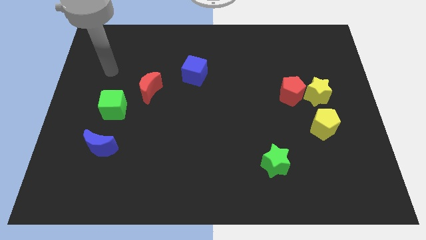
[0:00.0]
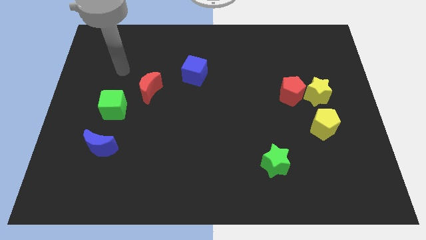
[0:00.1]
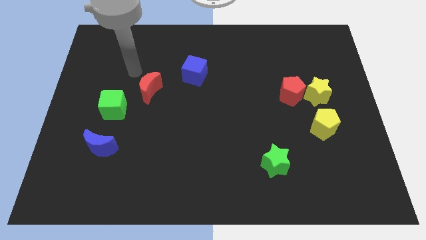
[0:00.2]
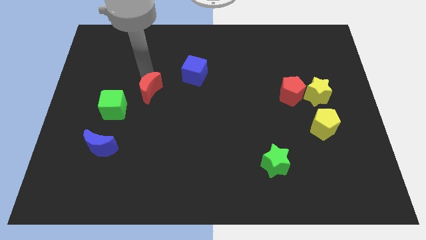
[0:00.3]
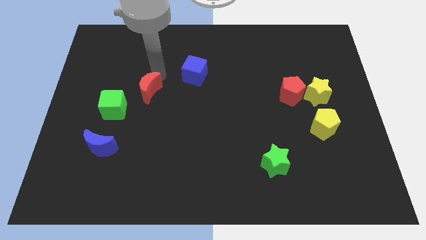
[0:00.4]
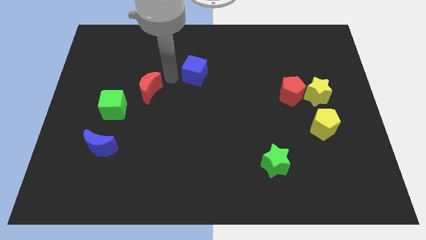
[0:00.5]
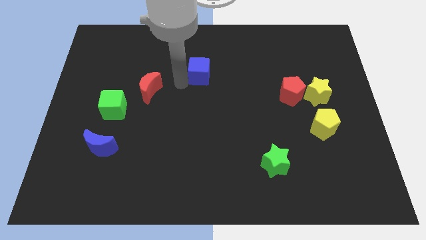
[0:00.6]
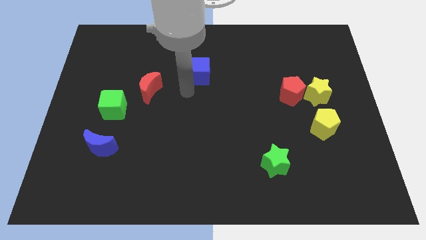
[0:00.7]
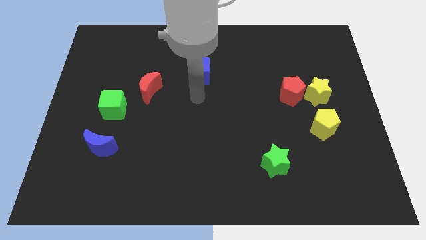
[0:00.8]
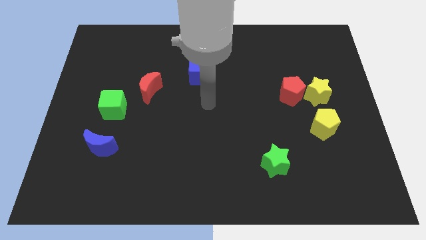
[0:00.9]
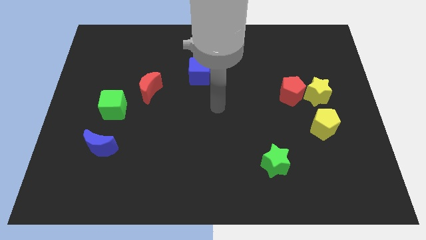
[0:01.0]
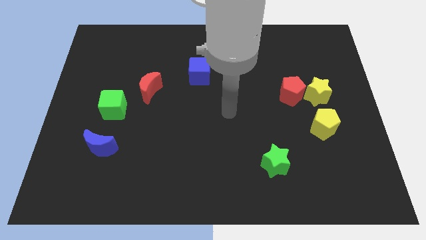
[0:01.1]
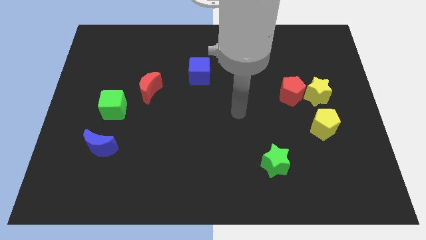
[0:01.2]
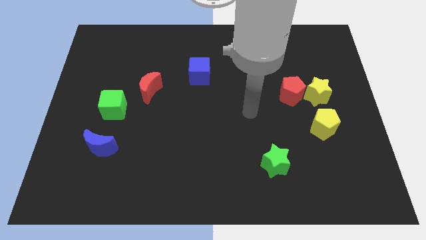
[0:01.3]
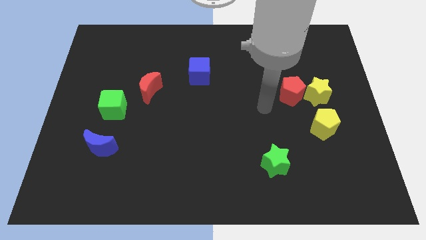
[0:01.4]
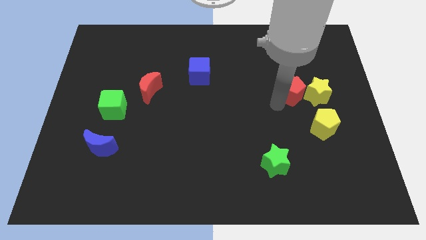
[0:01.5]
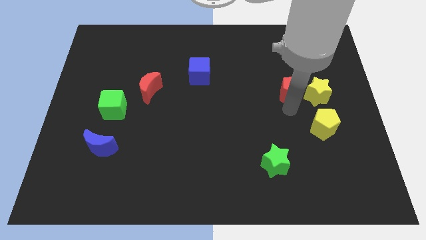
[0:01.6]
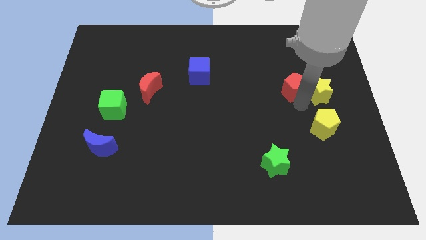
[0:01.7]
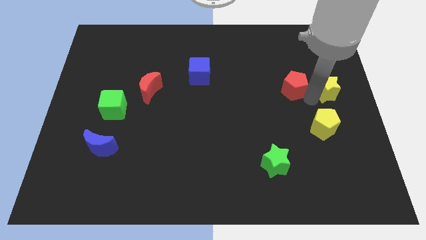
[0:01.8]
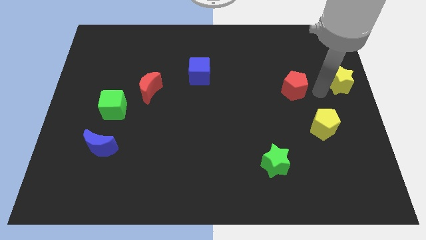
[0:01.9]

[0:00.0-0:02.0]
move the red pentagon away from the yellow star

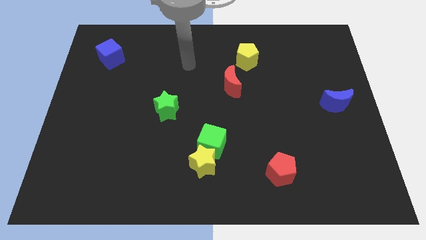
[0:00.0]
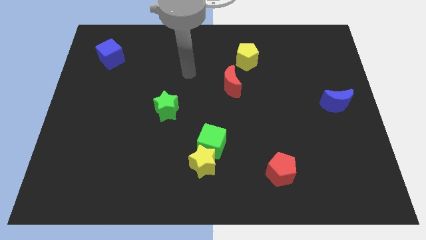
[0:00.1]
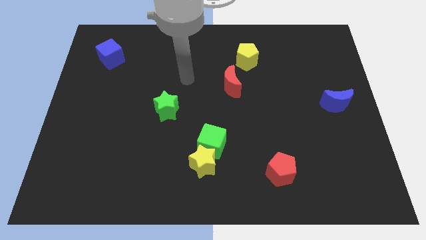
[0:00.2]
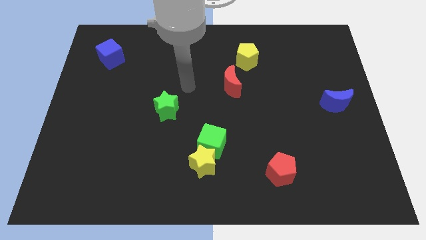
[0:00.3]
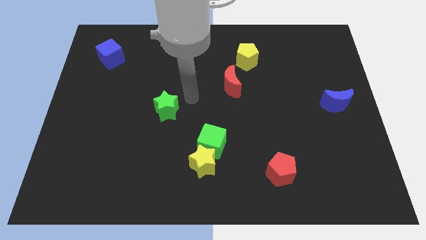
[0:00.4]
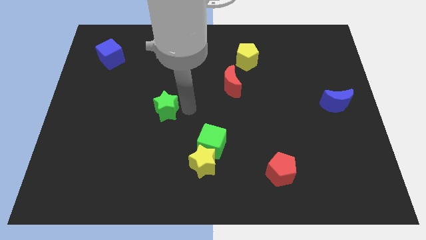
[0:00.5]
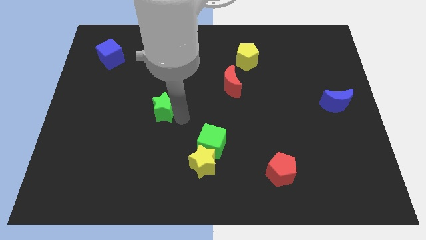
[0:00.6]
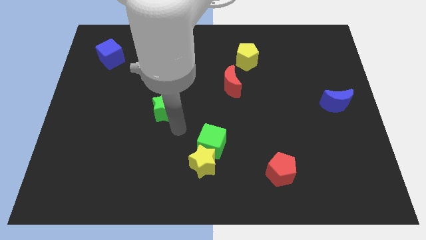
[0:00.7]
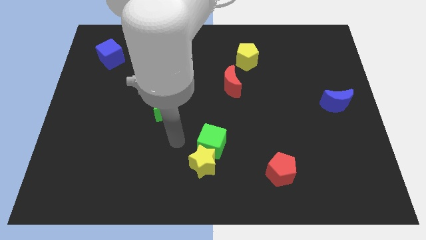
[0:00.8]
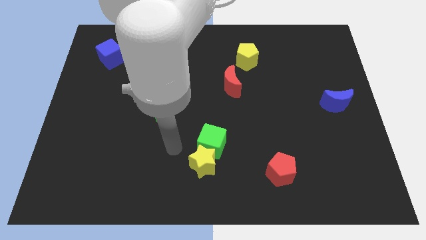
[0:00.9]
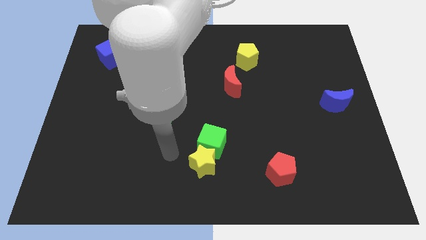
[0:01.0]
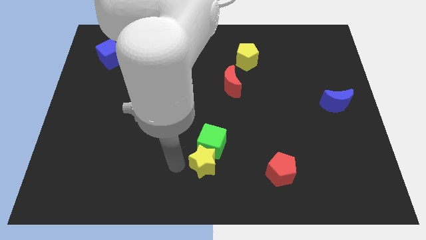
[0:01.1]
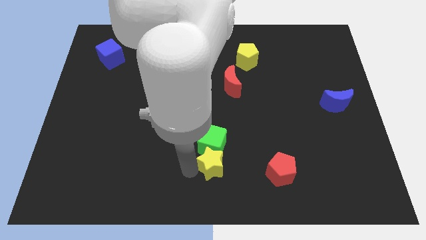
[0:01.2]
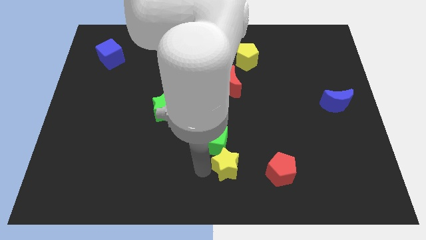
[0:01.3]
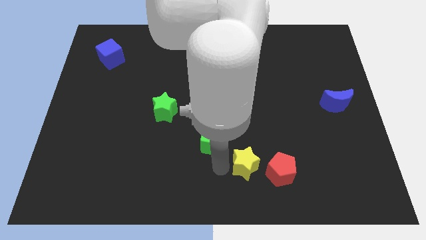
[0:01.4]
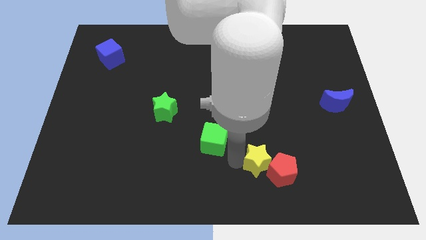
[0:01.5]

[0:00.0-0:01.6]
pull the green cube apart from the yellow star

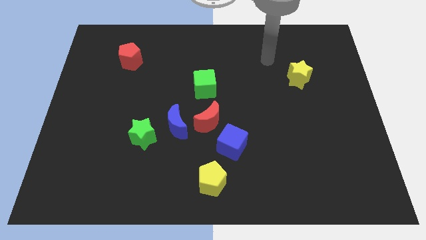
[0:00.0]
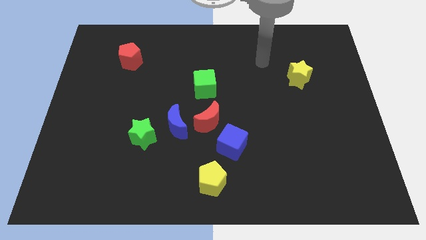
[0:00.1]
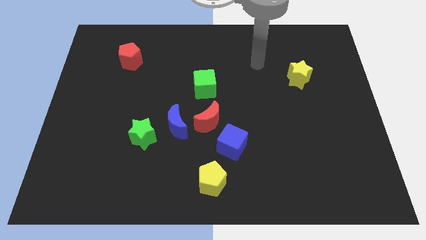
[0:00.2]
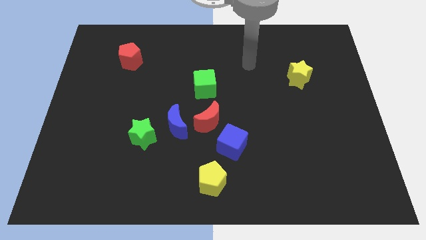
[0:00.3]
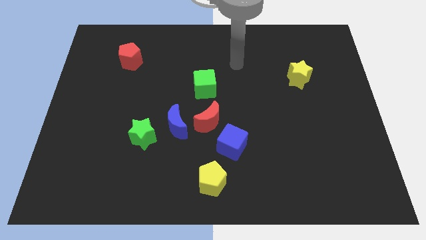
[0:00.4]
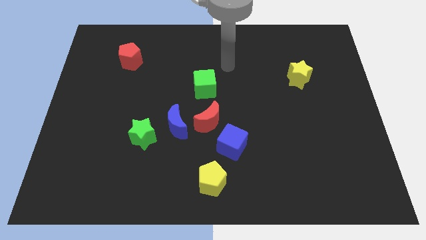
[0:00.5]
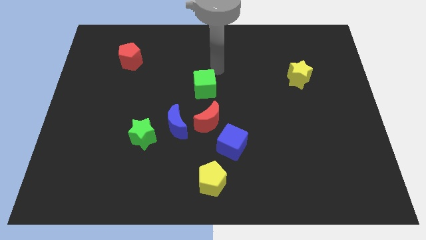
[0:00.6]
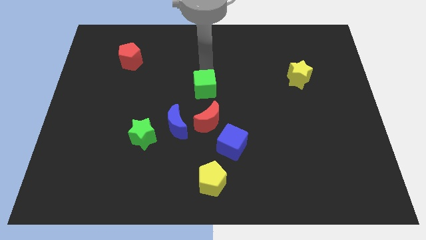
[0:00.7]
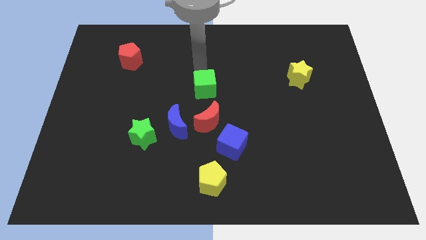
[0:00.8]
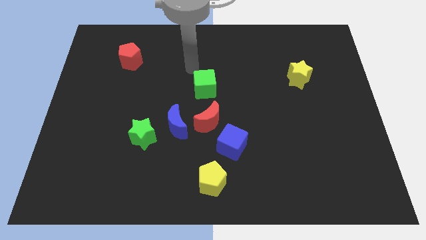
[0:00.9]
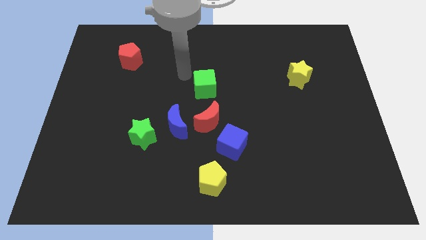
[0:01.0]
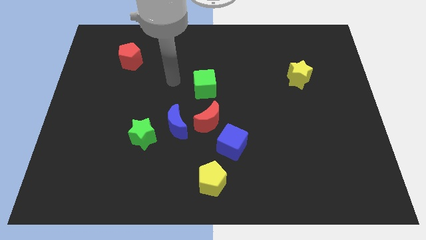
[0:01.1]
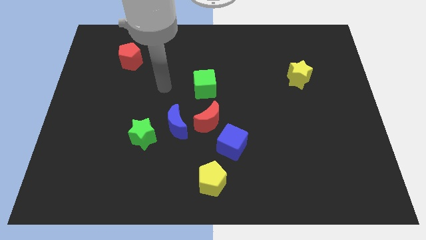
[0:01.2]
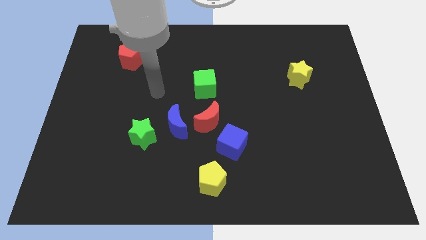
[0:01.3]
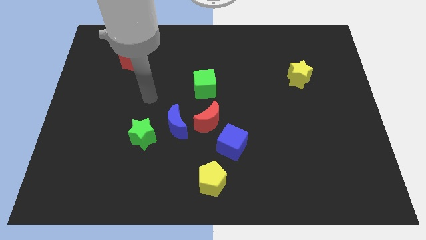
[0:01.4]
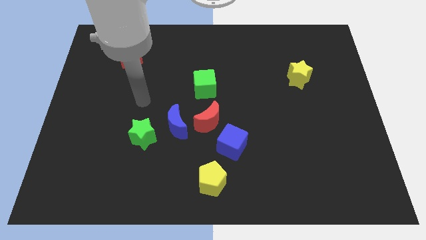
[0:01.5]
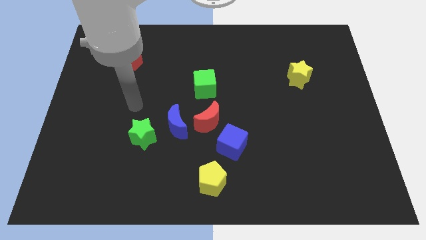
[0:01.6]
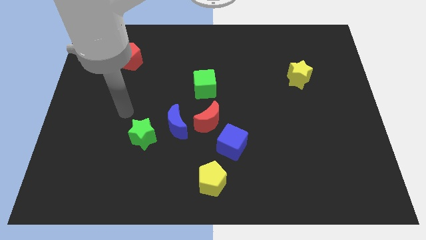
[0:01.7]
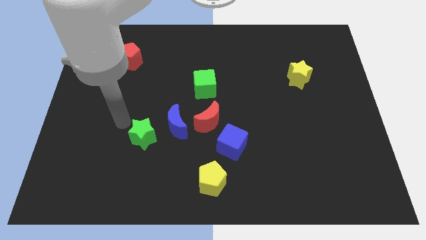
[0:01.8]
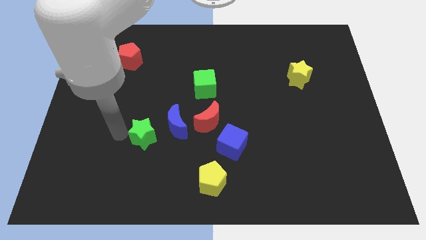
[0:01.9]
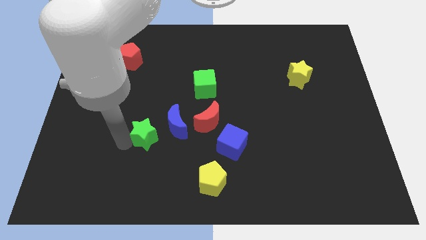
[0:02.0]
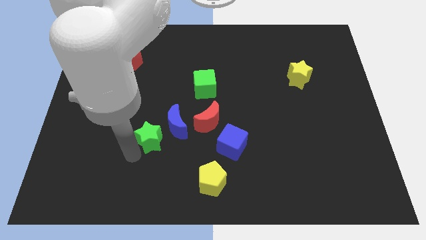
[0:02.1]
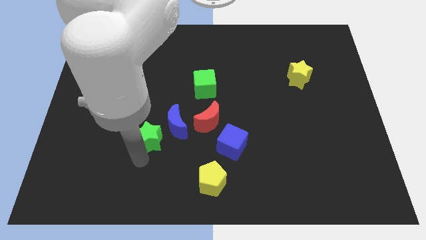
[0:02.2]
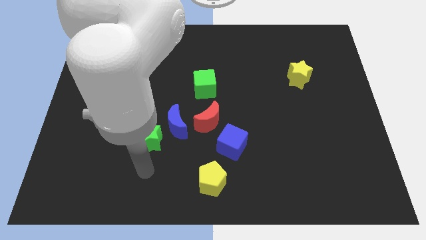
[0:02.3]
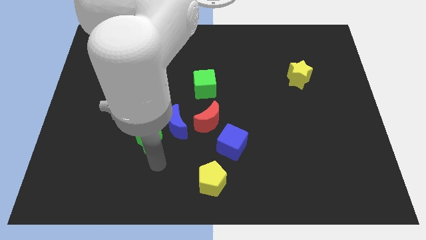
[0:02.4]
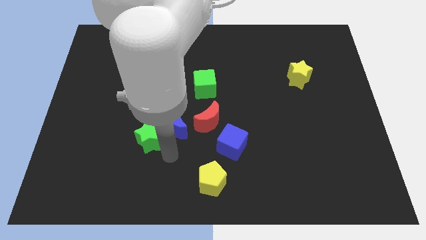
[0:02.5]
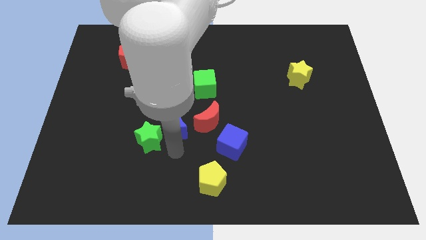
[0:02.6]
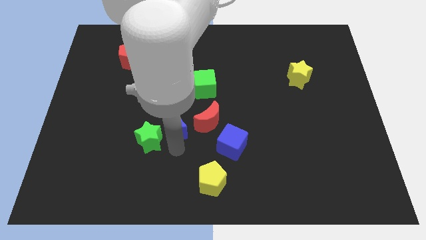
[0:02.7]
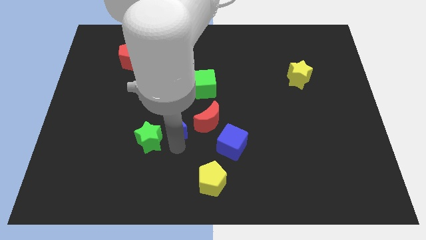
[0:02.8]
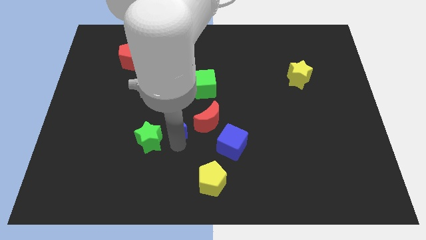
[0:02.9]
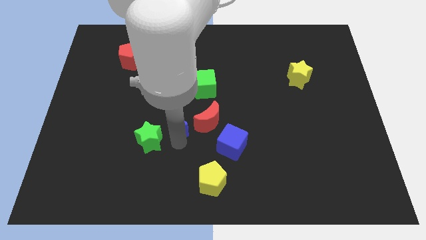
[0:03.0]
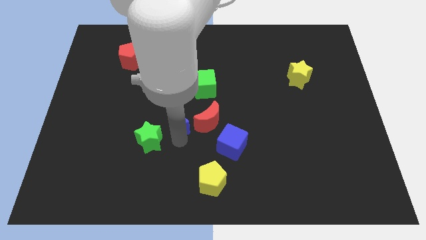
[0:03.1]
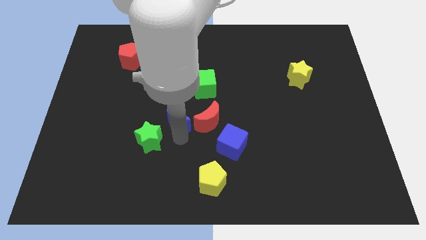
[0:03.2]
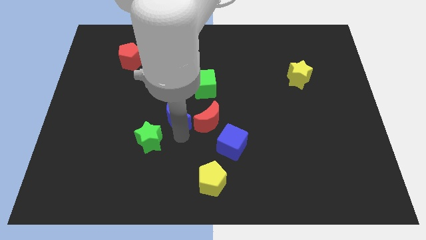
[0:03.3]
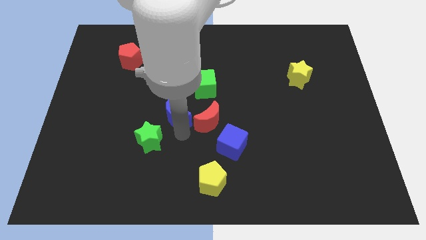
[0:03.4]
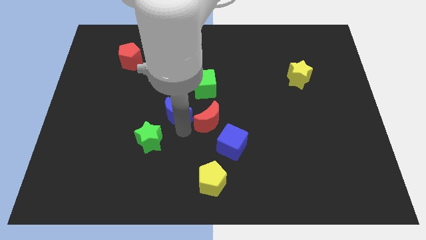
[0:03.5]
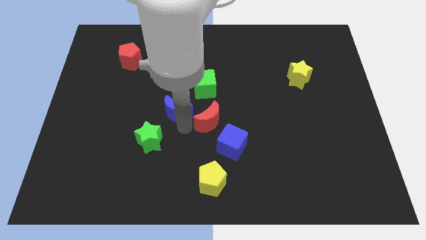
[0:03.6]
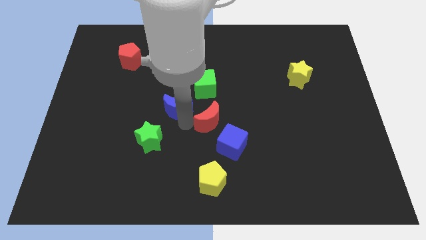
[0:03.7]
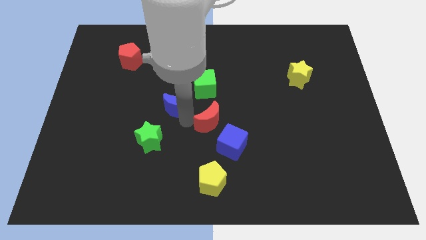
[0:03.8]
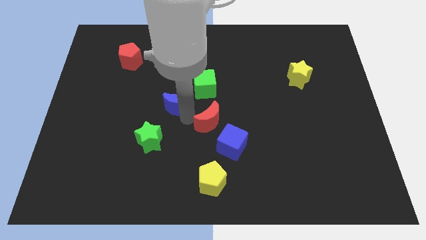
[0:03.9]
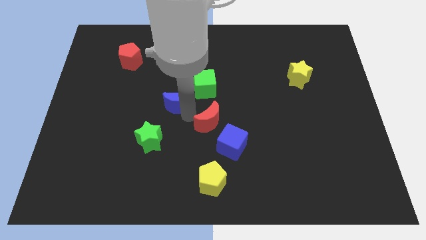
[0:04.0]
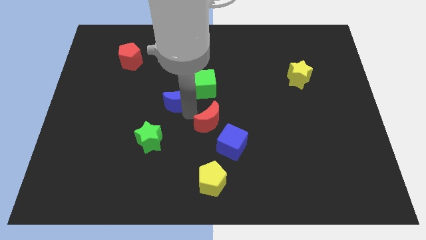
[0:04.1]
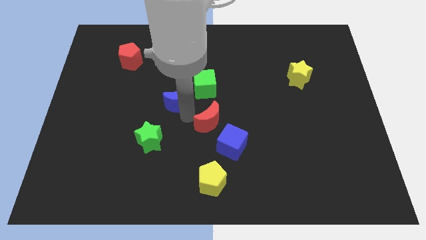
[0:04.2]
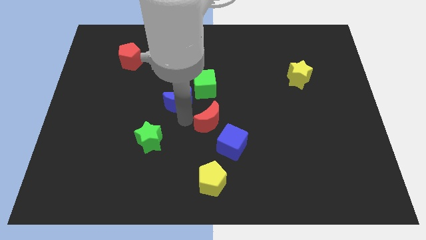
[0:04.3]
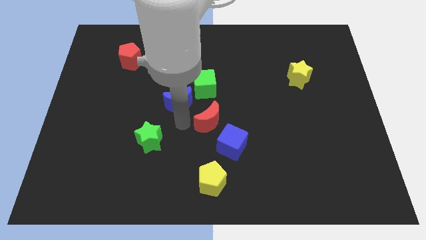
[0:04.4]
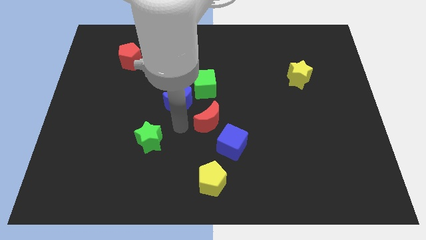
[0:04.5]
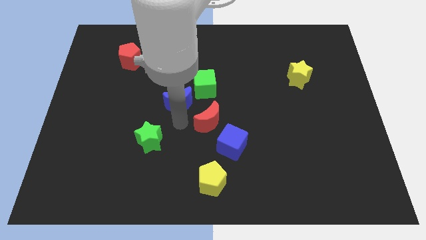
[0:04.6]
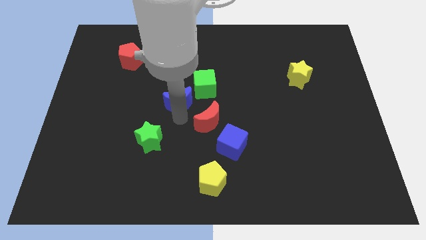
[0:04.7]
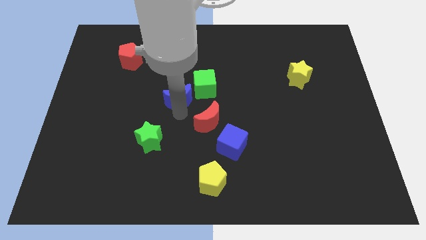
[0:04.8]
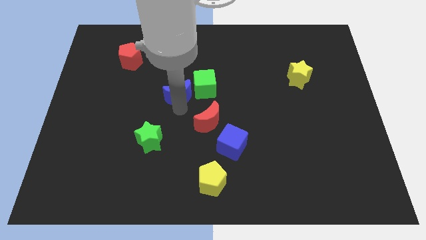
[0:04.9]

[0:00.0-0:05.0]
separate the blue moon from the red moon and green star

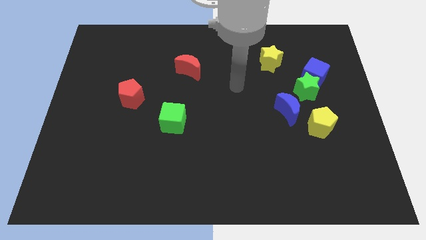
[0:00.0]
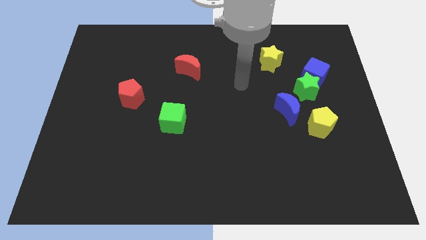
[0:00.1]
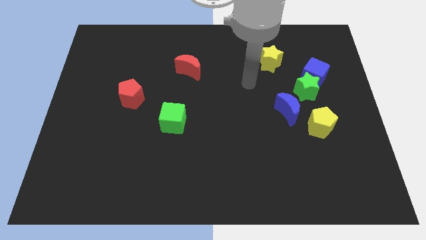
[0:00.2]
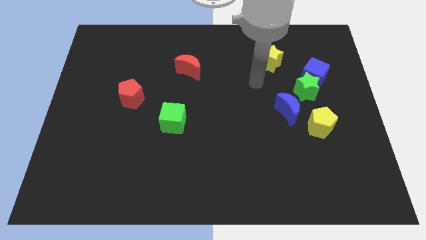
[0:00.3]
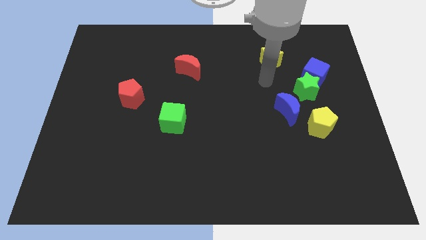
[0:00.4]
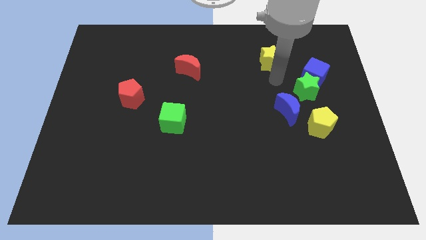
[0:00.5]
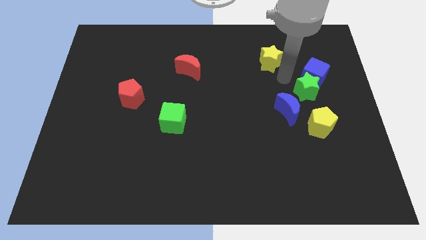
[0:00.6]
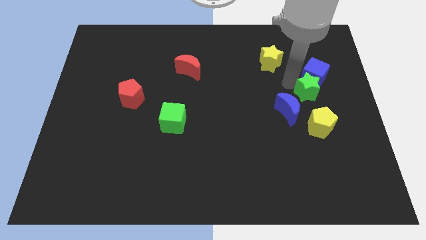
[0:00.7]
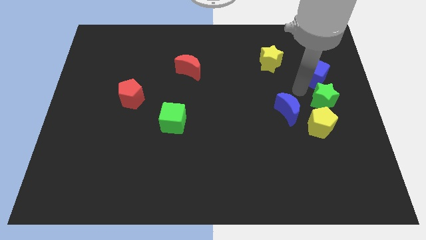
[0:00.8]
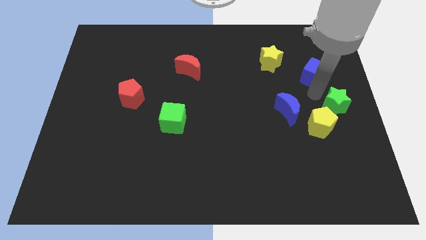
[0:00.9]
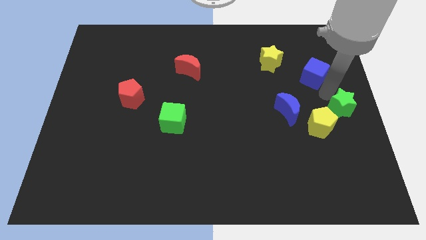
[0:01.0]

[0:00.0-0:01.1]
separate the blue cube from the green star
